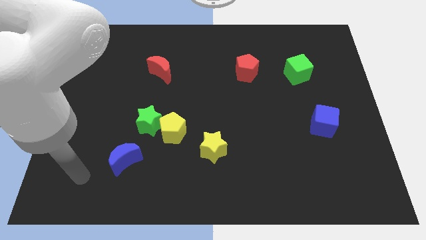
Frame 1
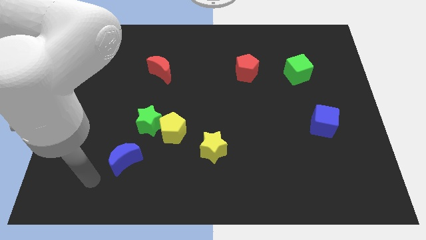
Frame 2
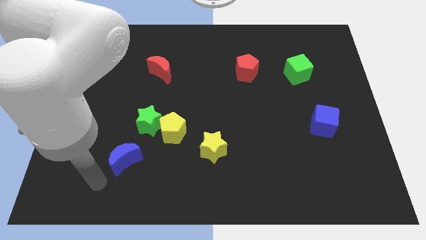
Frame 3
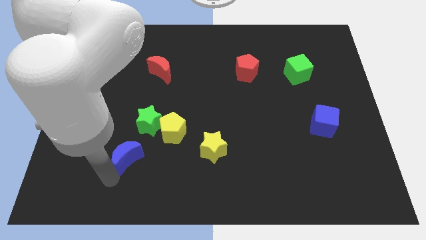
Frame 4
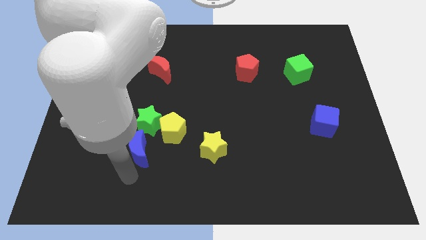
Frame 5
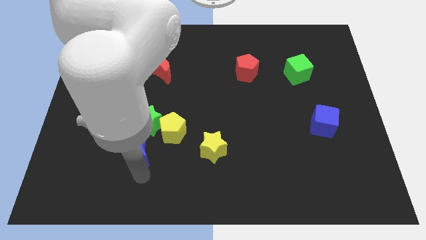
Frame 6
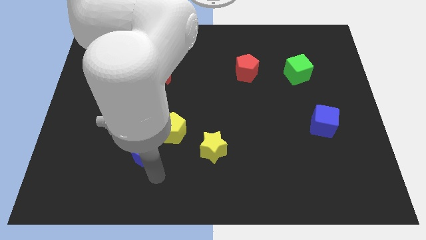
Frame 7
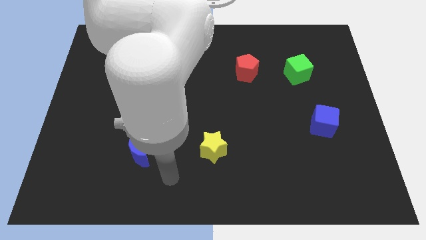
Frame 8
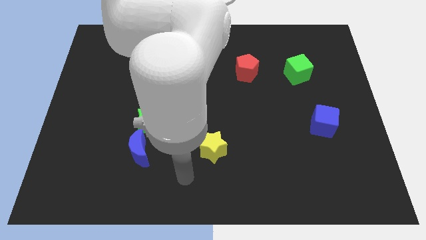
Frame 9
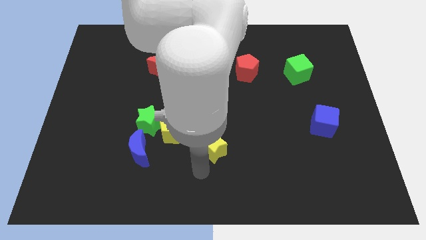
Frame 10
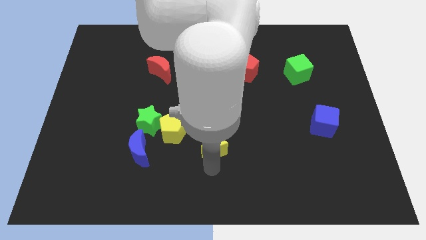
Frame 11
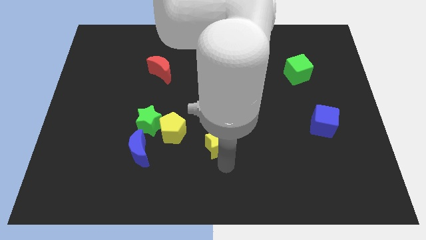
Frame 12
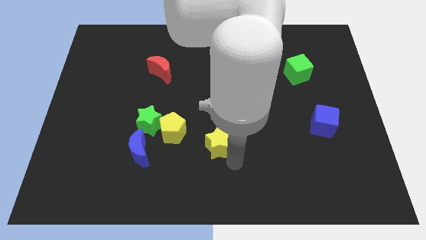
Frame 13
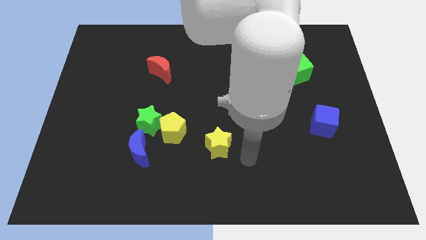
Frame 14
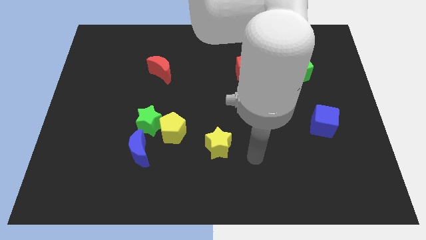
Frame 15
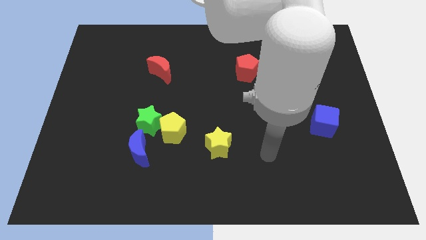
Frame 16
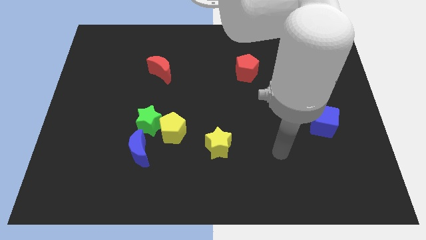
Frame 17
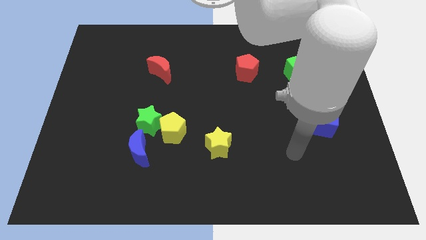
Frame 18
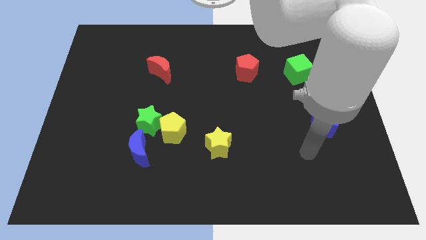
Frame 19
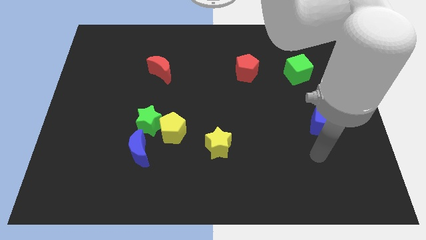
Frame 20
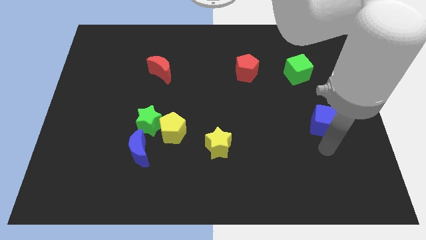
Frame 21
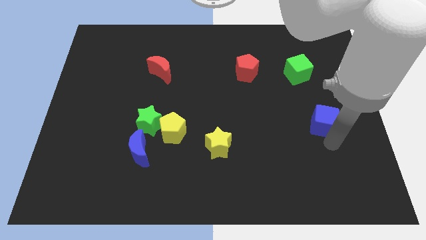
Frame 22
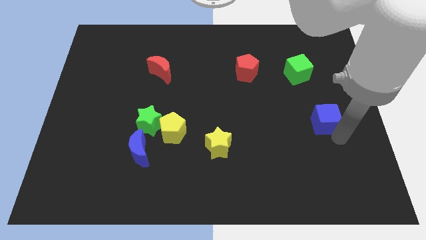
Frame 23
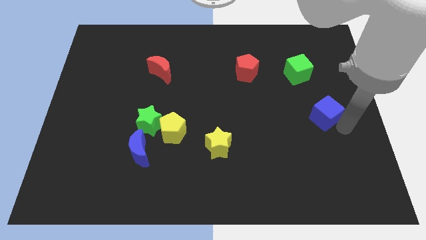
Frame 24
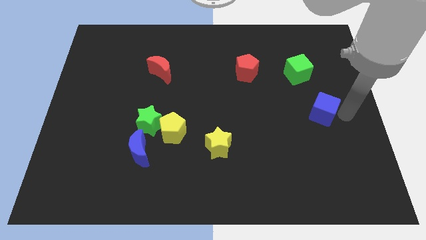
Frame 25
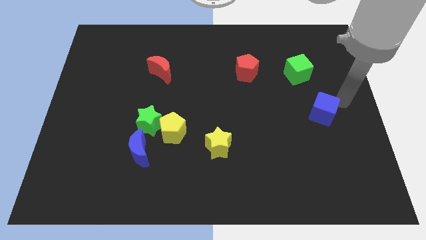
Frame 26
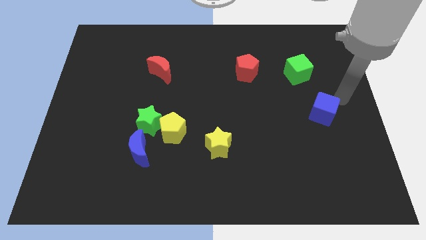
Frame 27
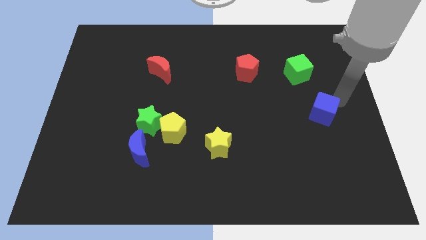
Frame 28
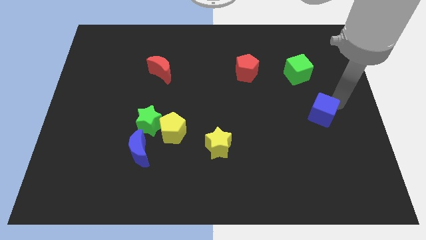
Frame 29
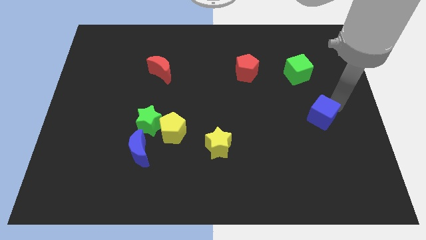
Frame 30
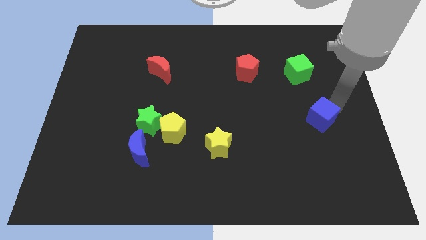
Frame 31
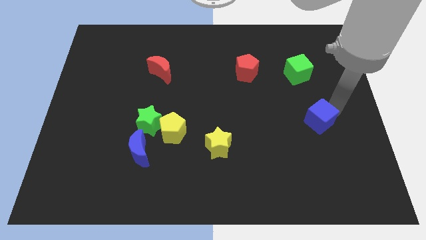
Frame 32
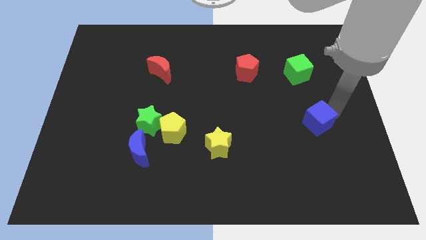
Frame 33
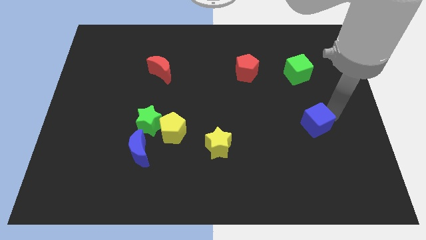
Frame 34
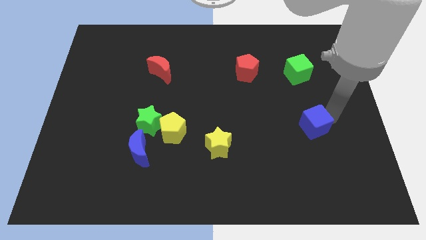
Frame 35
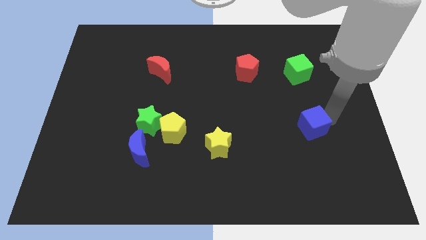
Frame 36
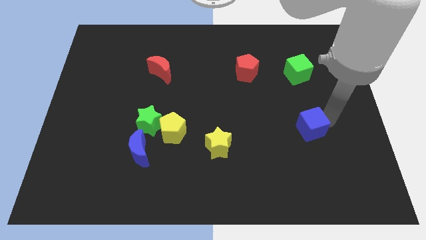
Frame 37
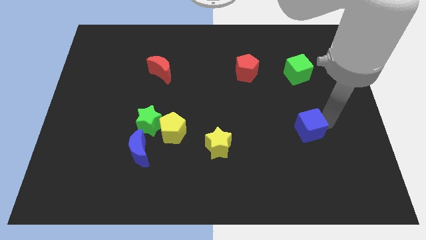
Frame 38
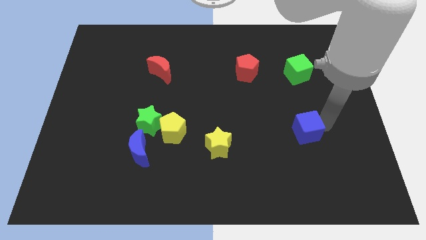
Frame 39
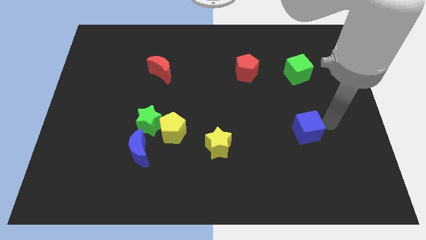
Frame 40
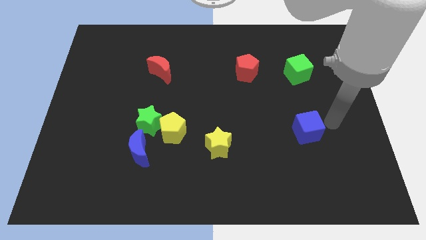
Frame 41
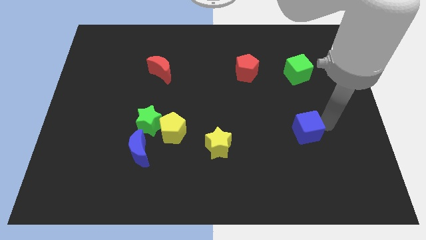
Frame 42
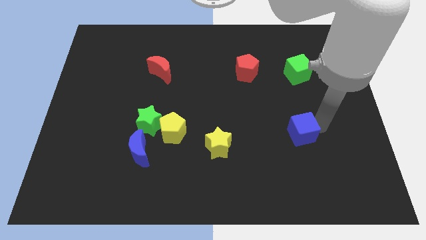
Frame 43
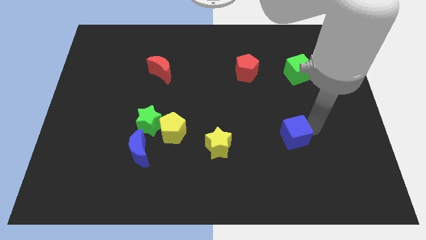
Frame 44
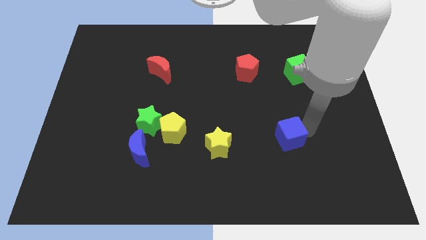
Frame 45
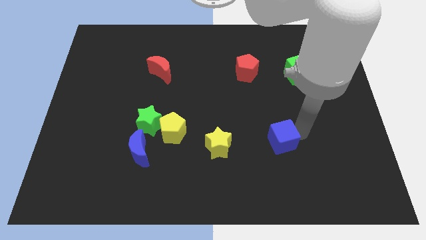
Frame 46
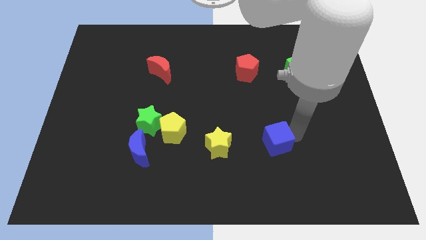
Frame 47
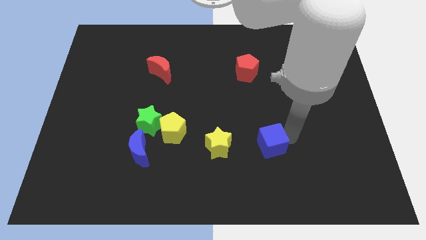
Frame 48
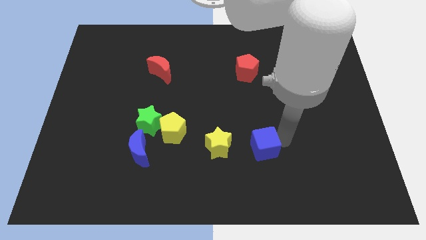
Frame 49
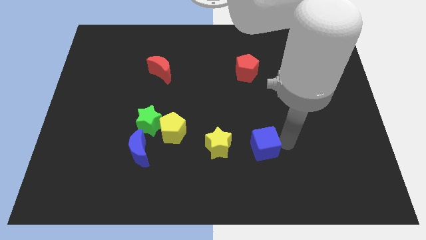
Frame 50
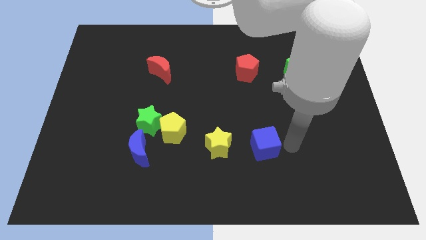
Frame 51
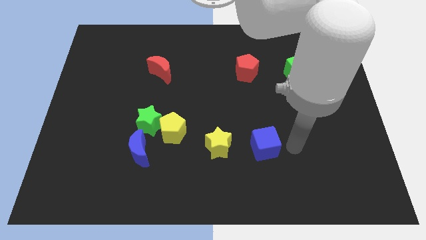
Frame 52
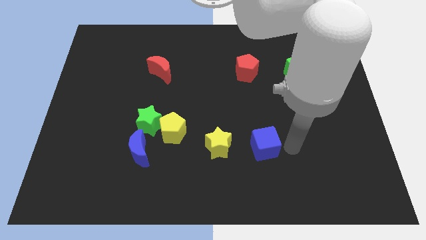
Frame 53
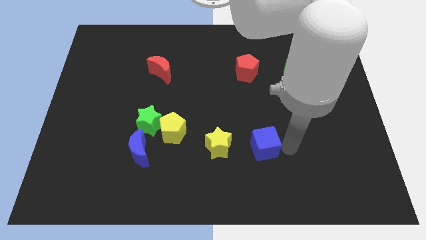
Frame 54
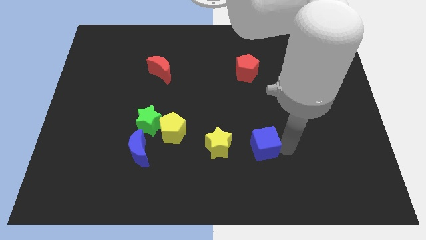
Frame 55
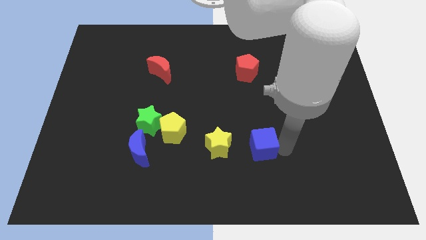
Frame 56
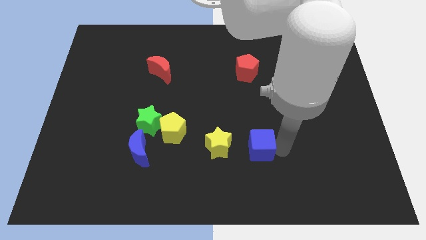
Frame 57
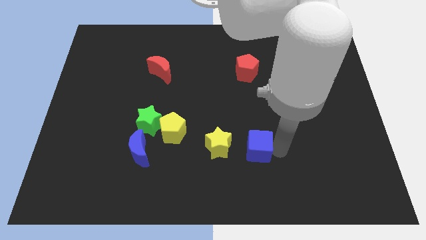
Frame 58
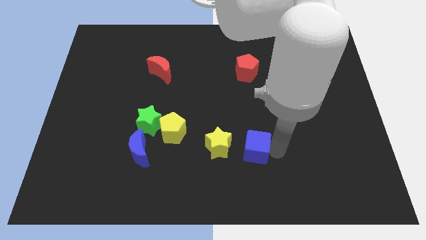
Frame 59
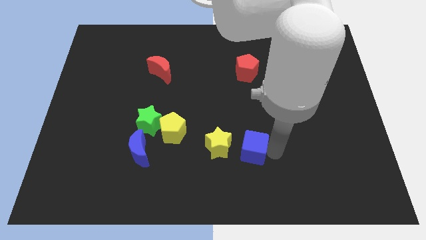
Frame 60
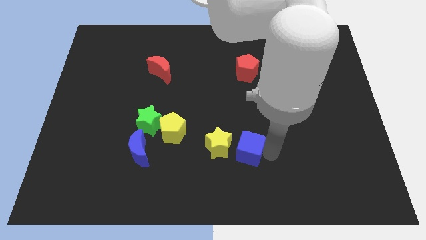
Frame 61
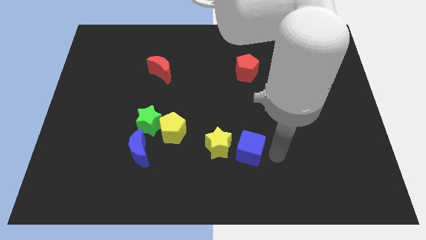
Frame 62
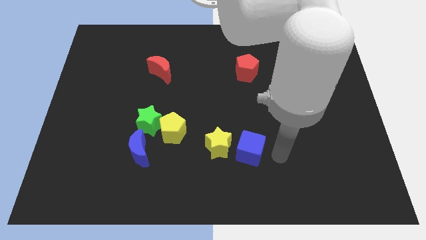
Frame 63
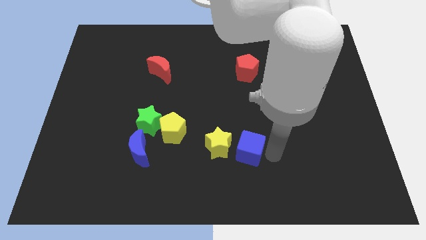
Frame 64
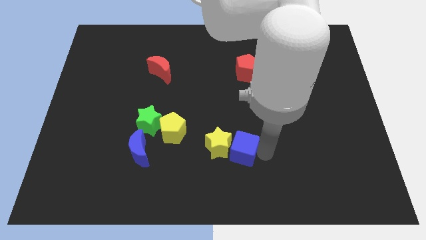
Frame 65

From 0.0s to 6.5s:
put the blue cube next to the yellow star
